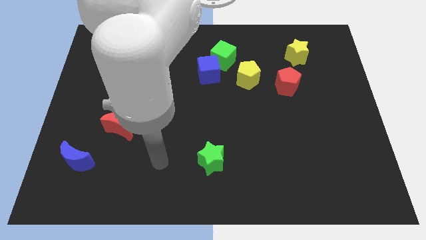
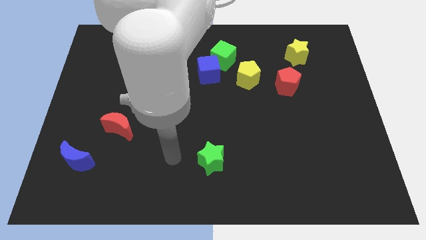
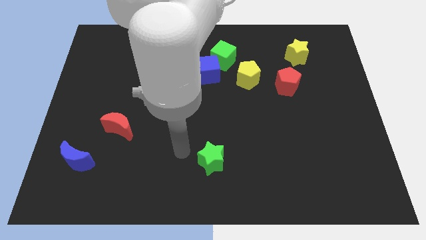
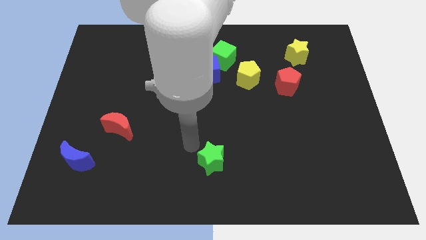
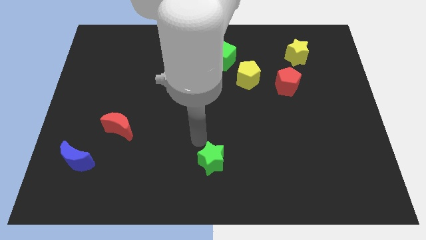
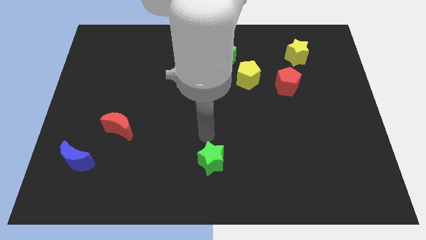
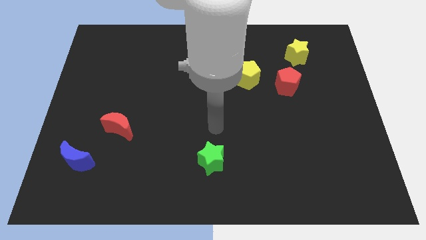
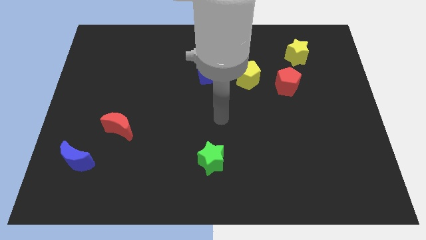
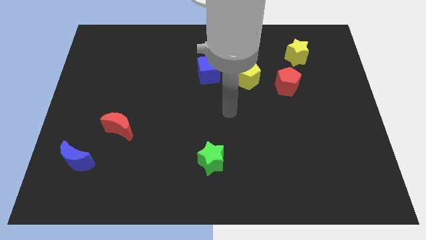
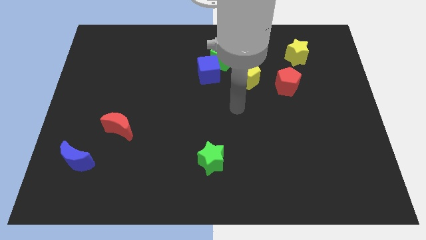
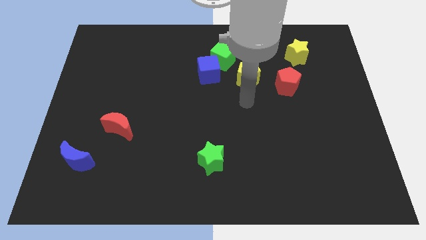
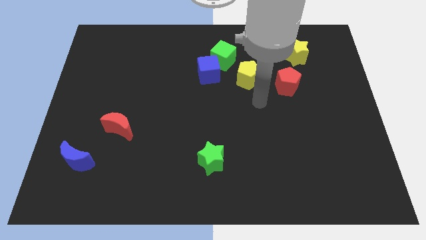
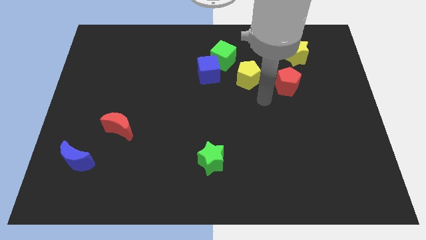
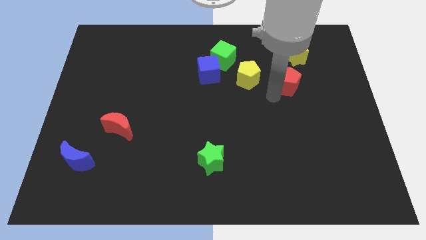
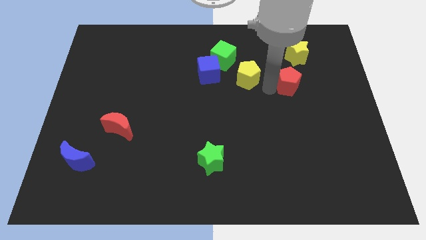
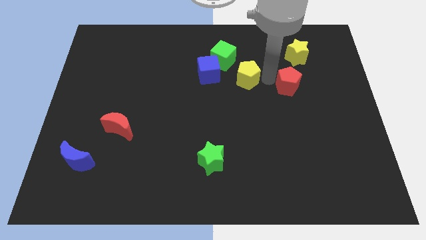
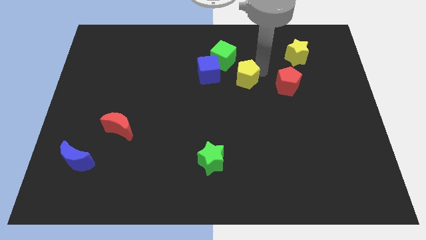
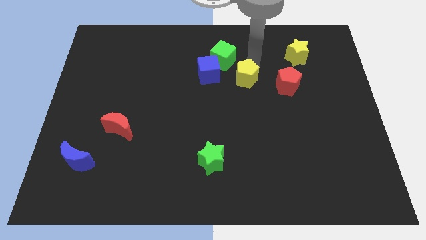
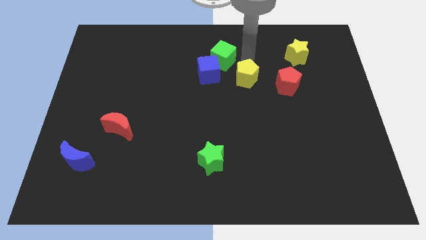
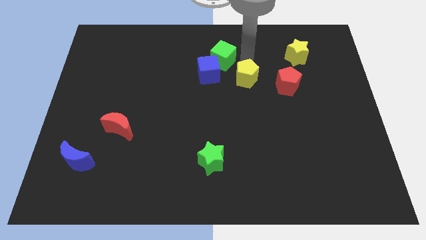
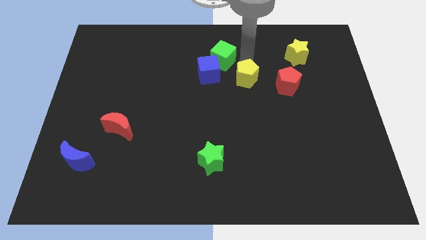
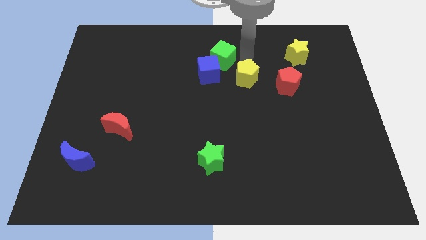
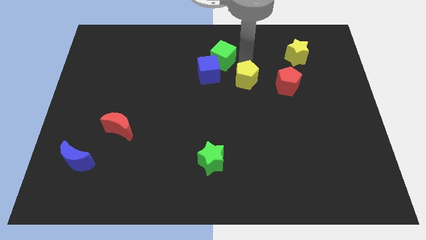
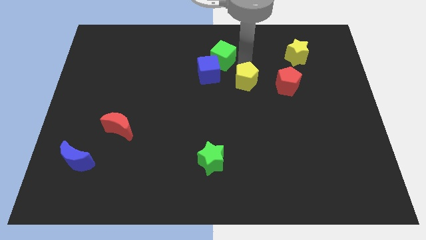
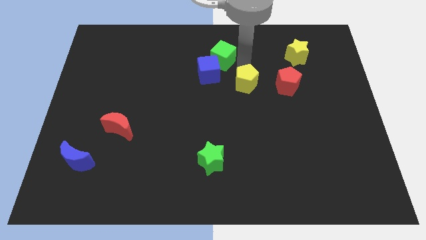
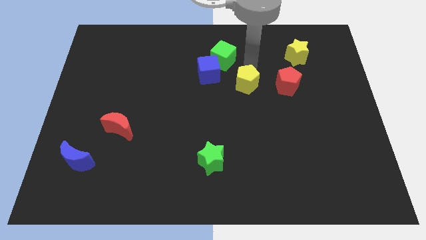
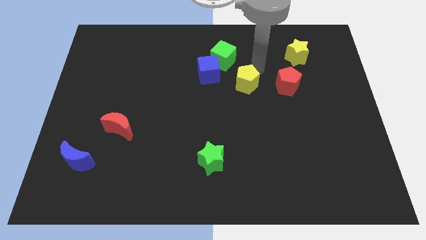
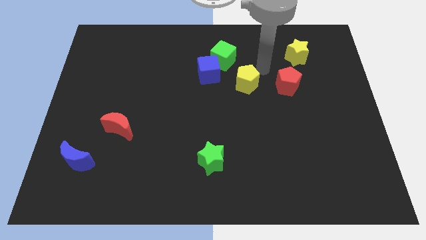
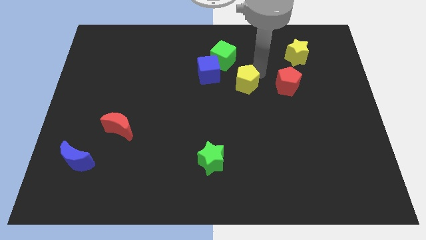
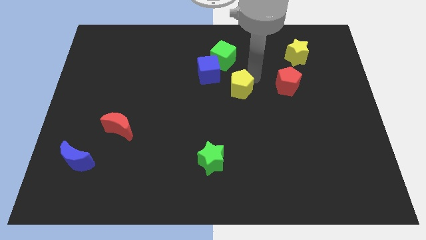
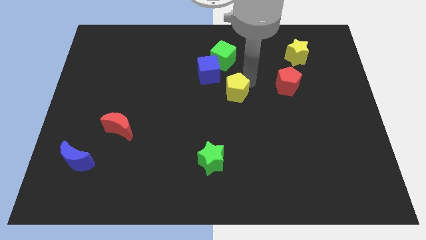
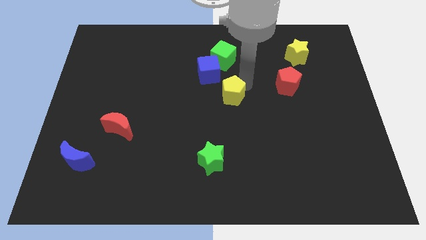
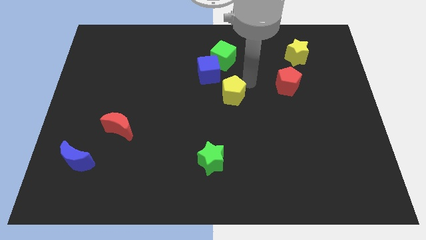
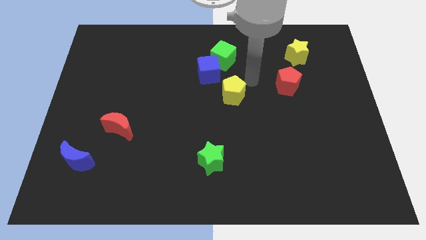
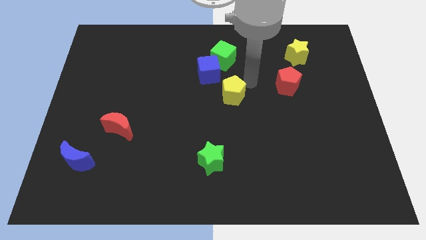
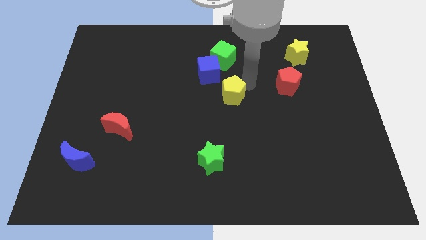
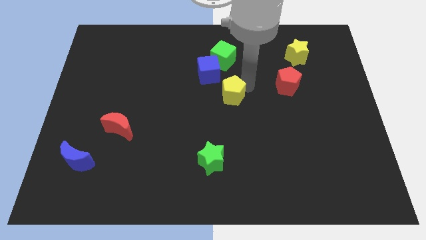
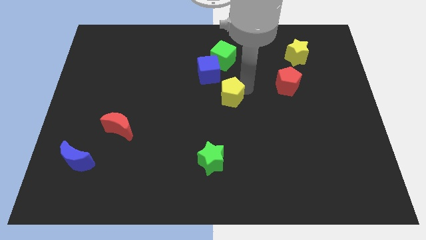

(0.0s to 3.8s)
slightly push the yellow pentagon downwards and to the left diagonally

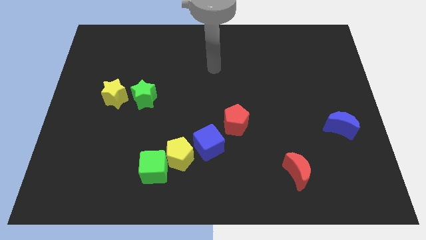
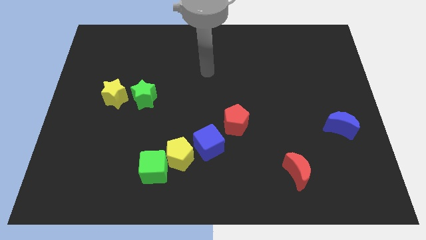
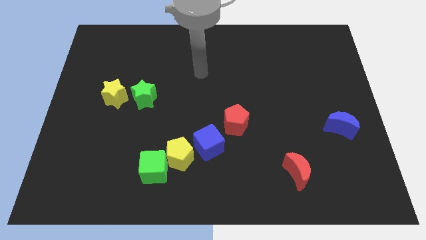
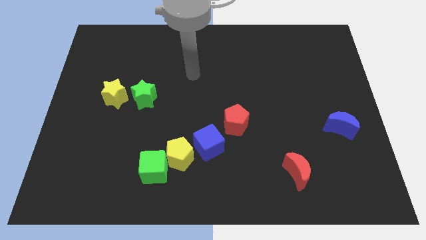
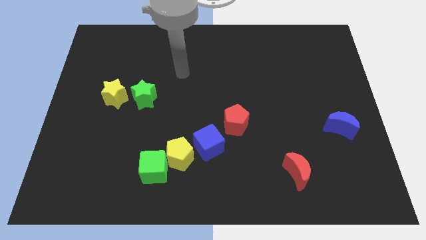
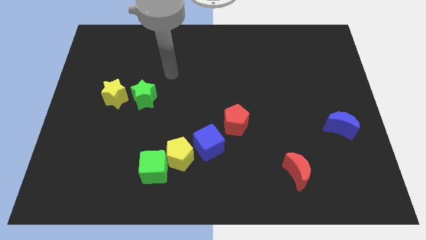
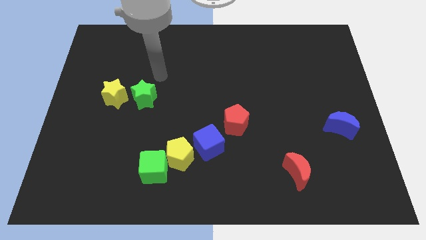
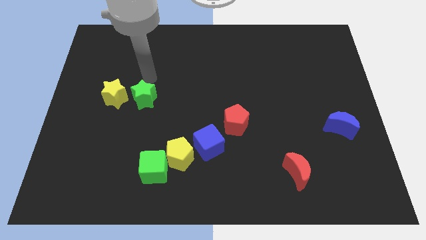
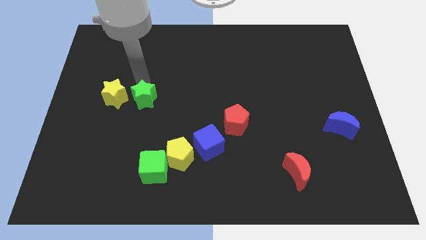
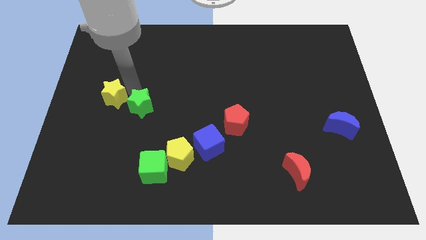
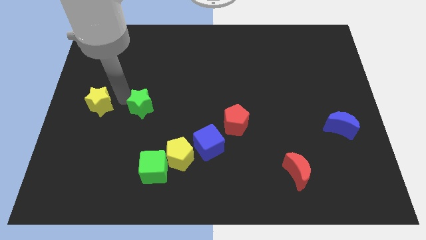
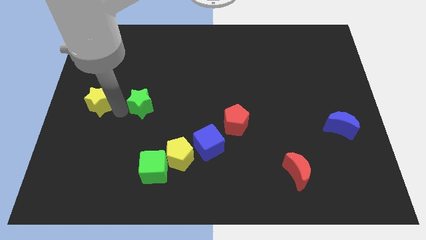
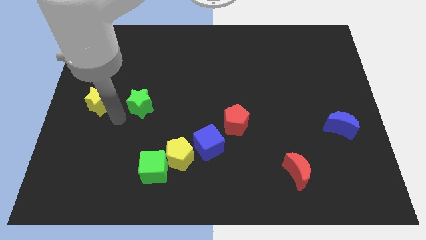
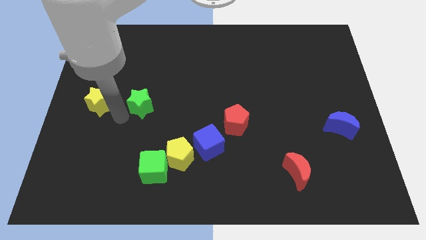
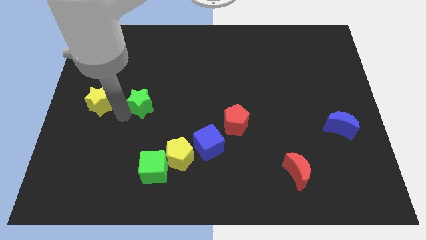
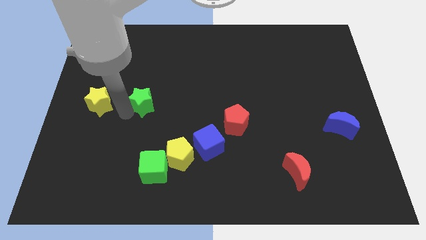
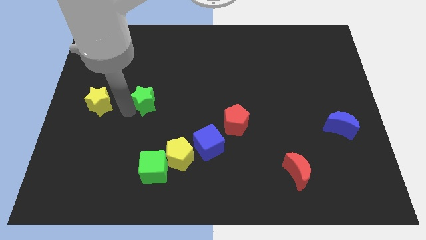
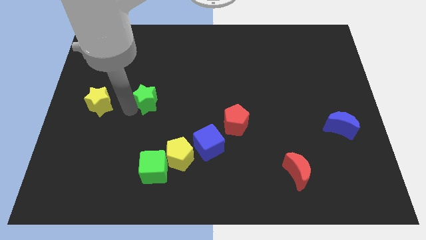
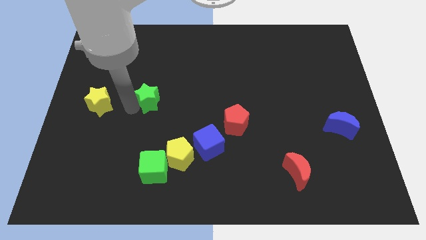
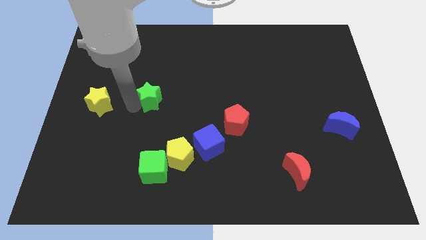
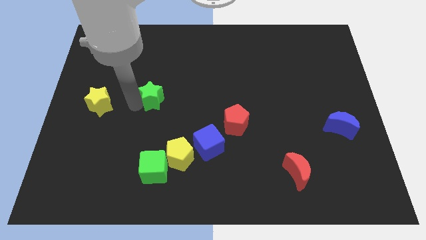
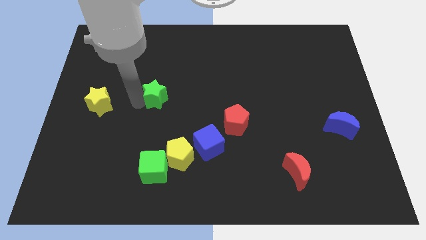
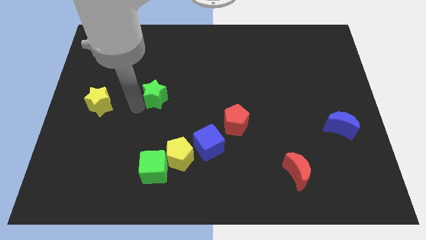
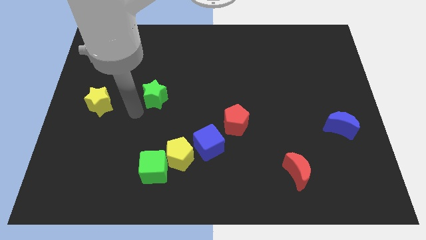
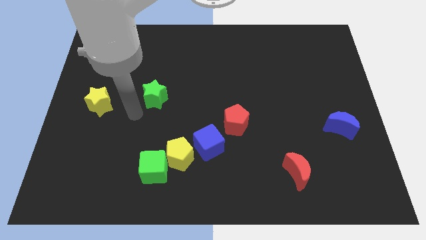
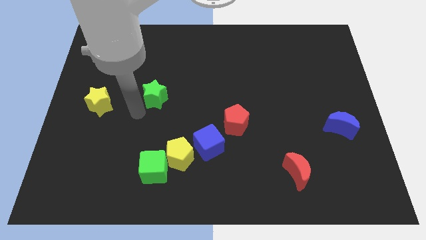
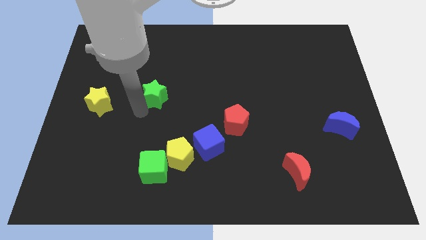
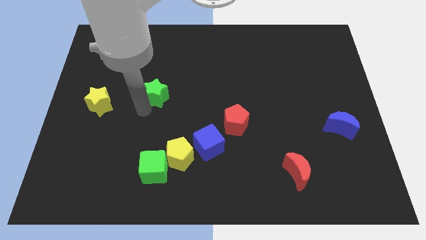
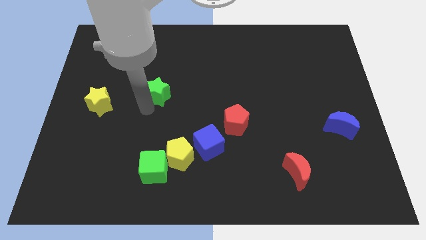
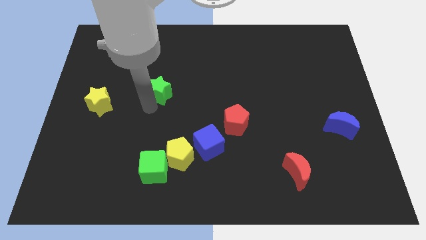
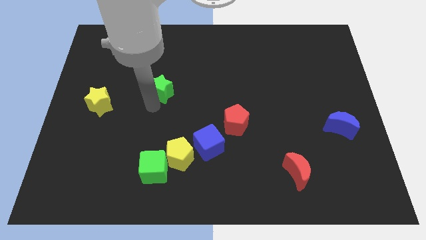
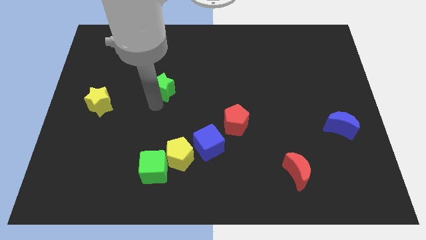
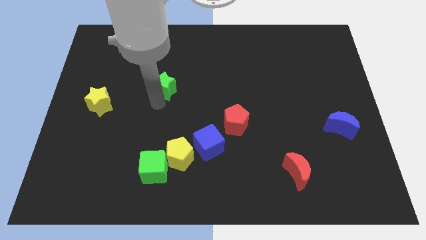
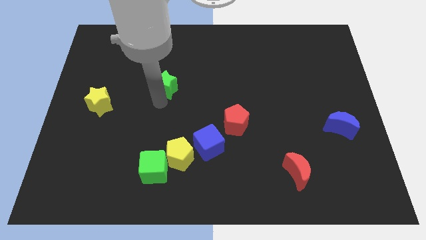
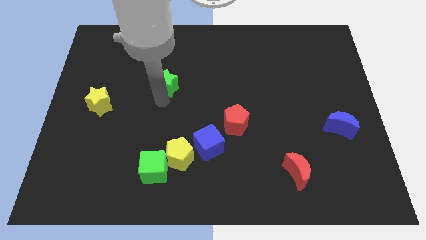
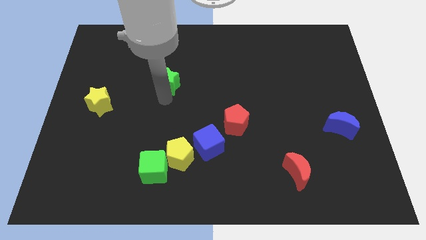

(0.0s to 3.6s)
slightly move the green star diagonally upwards and to the right

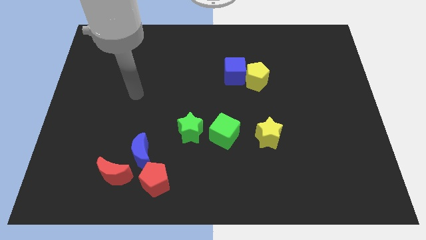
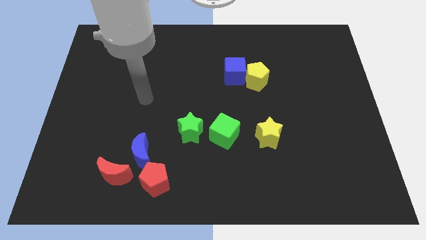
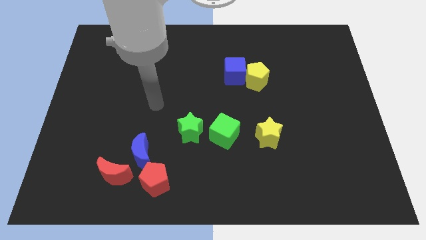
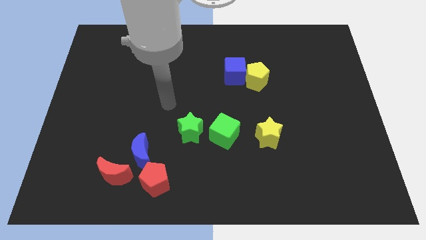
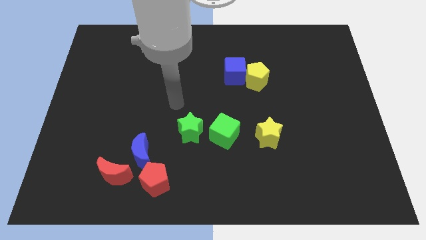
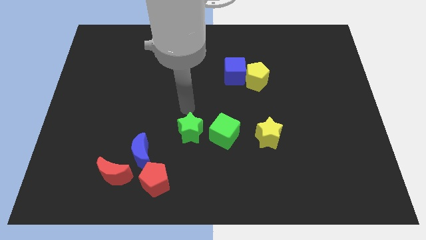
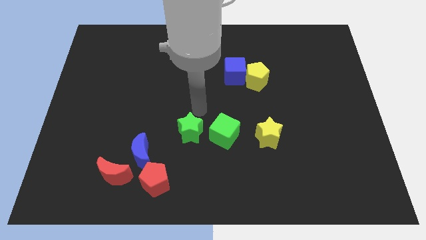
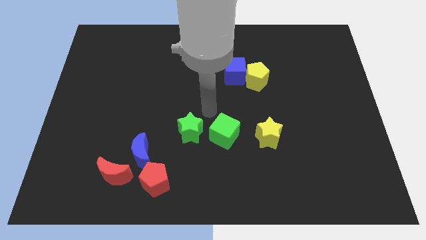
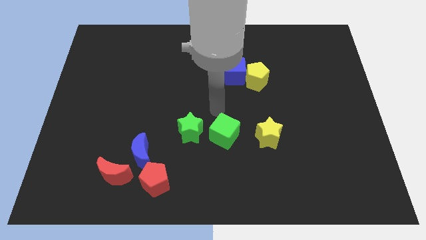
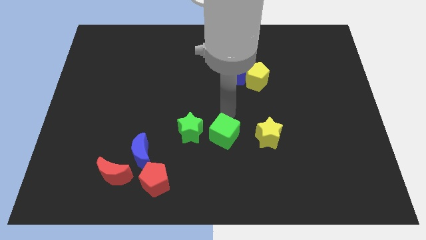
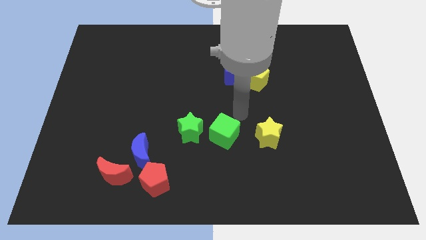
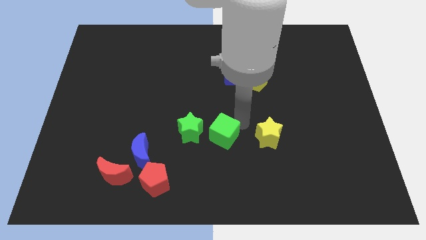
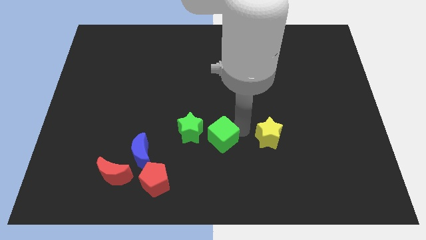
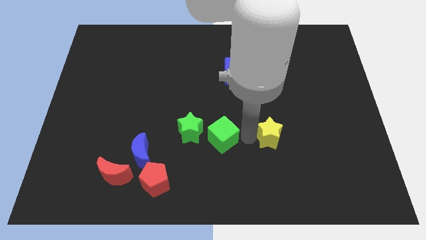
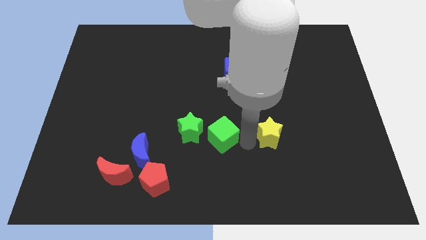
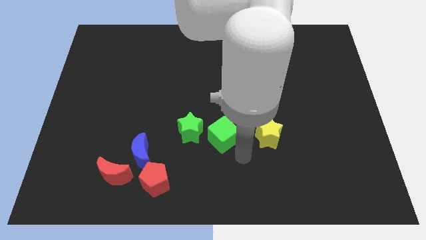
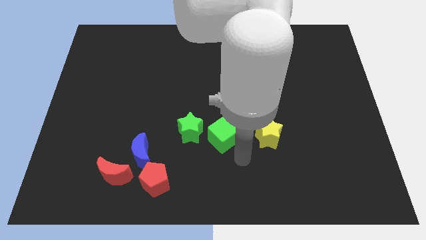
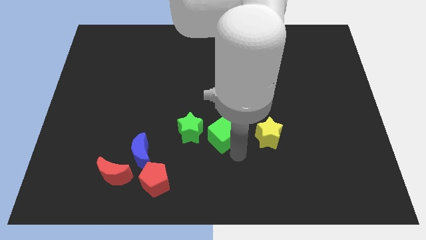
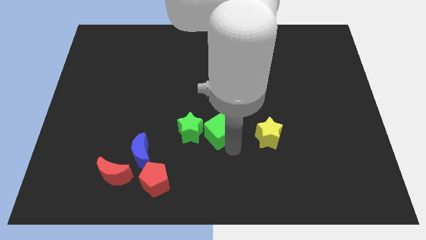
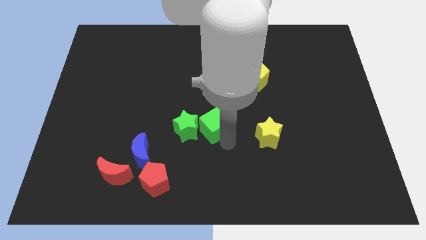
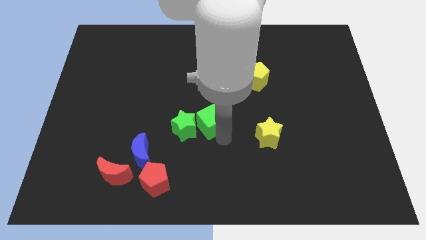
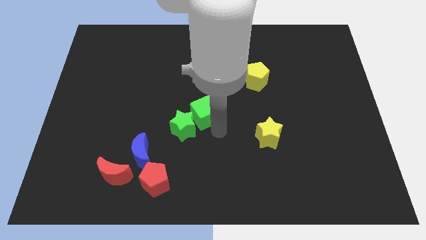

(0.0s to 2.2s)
slide the green cube a little up and left
